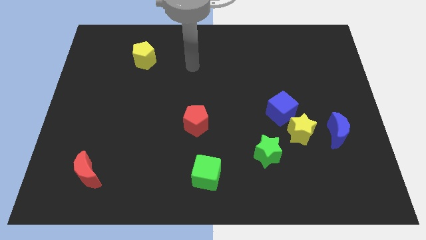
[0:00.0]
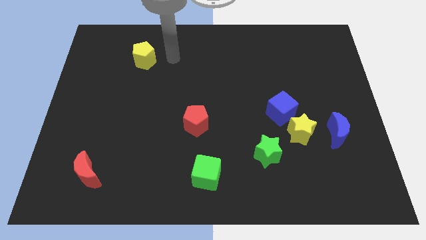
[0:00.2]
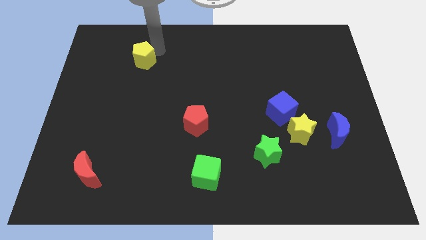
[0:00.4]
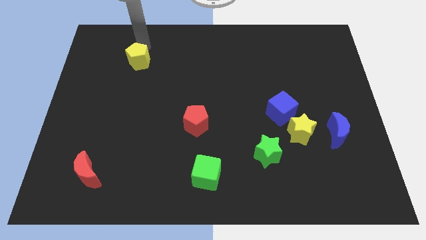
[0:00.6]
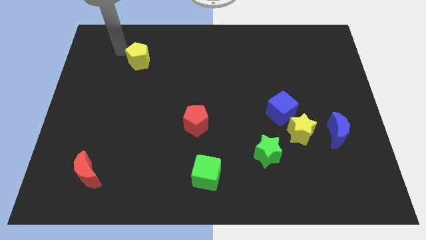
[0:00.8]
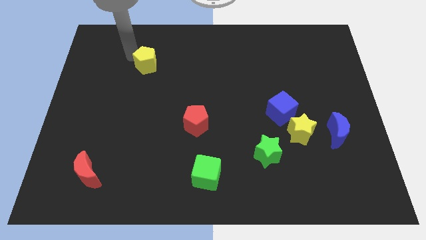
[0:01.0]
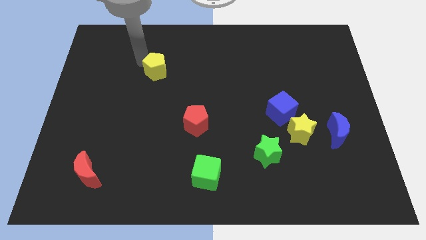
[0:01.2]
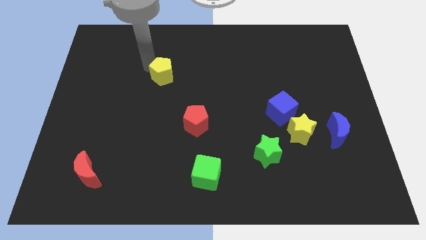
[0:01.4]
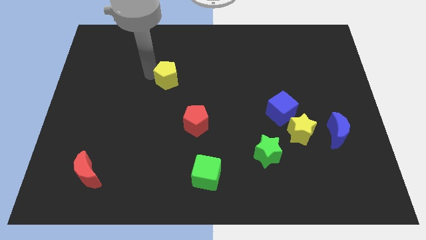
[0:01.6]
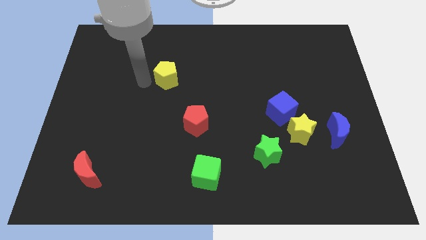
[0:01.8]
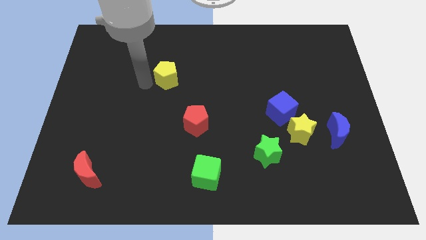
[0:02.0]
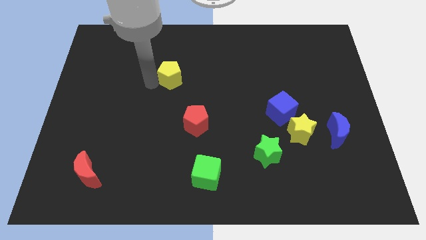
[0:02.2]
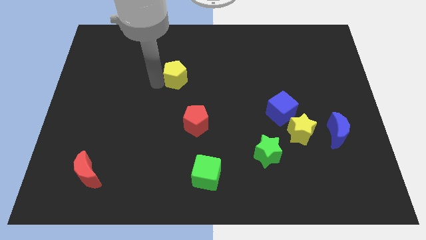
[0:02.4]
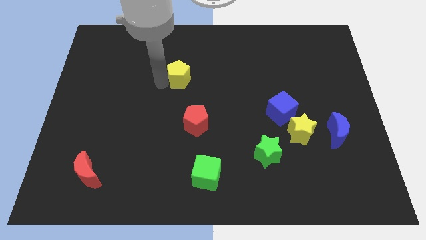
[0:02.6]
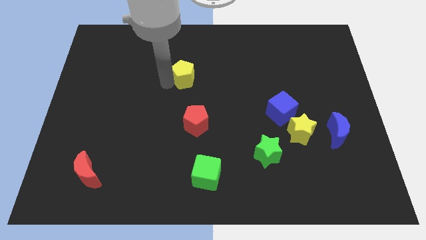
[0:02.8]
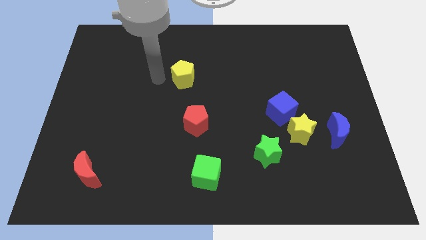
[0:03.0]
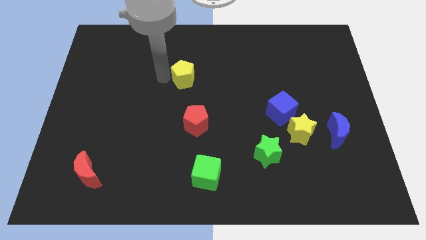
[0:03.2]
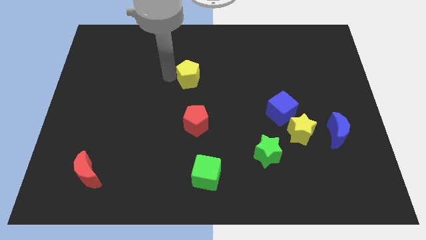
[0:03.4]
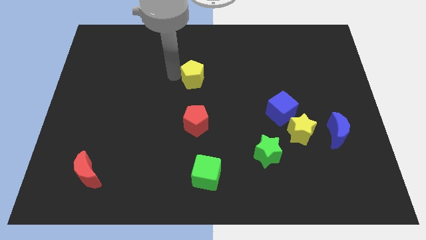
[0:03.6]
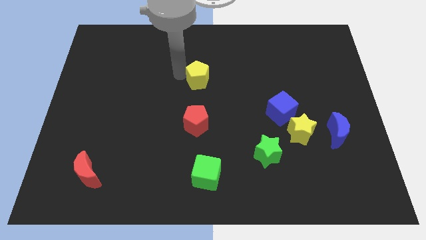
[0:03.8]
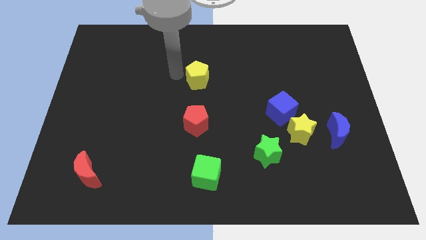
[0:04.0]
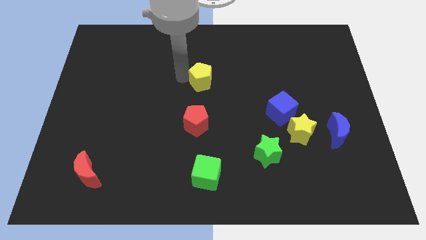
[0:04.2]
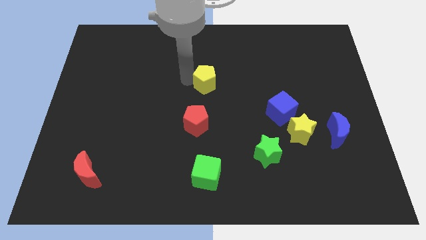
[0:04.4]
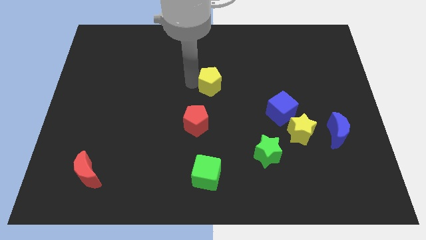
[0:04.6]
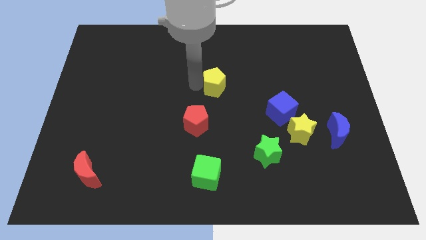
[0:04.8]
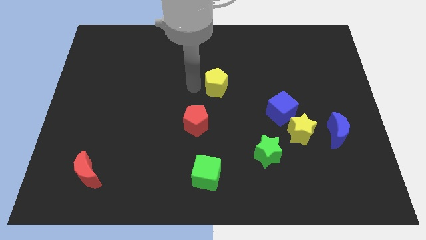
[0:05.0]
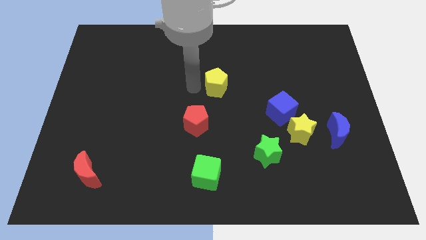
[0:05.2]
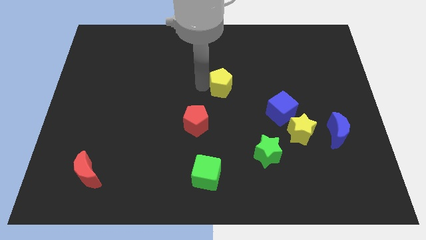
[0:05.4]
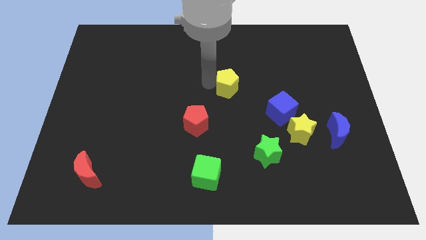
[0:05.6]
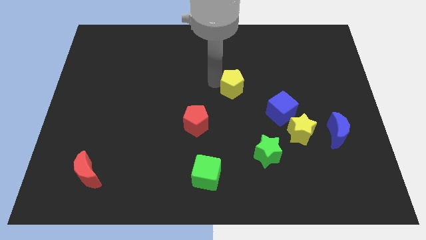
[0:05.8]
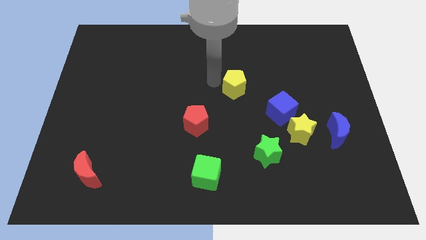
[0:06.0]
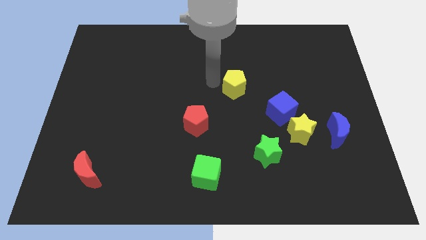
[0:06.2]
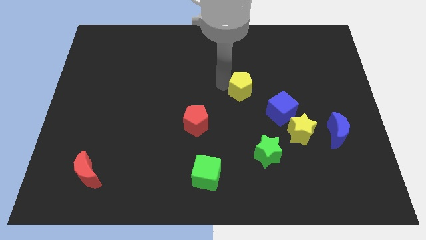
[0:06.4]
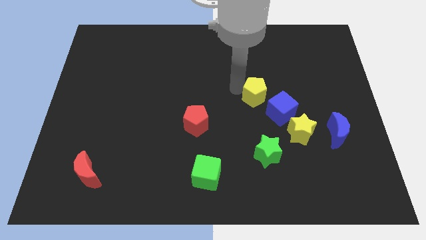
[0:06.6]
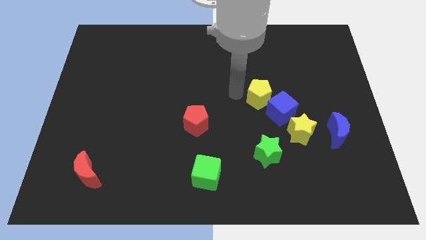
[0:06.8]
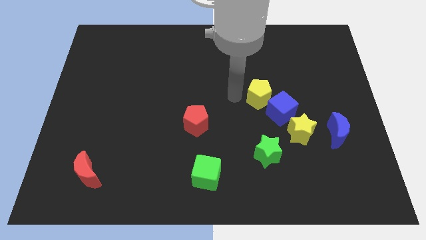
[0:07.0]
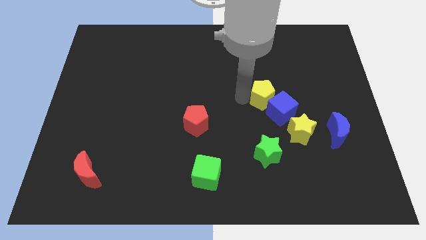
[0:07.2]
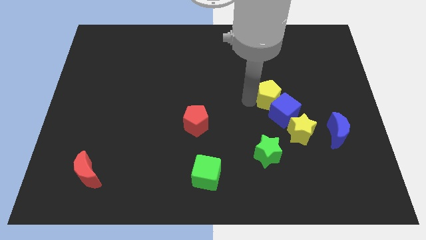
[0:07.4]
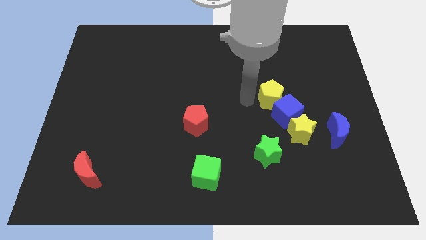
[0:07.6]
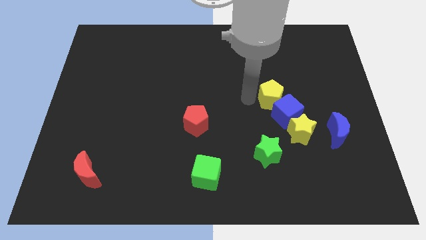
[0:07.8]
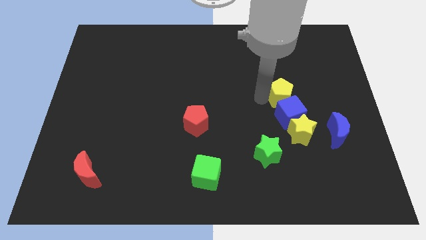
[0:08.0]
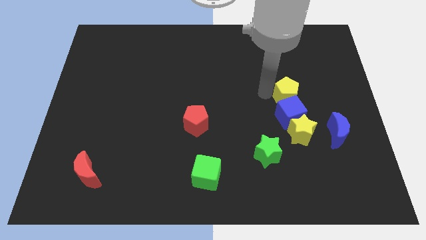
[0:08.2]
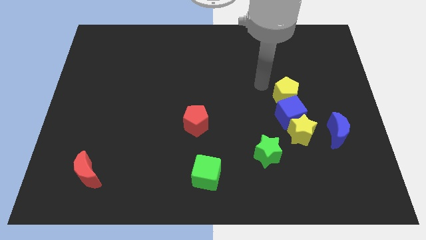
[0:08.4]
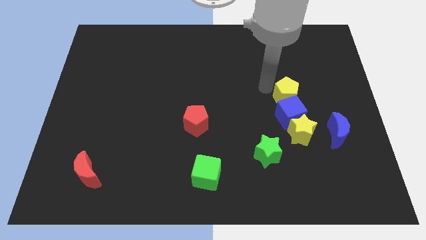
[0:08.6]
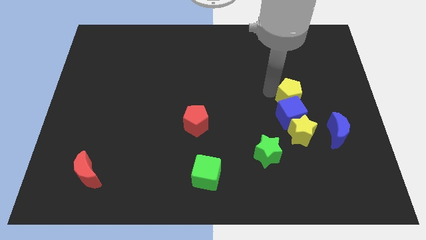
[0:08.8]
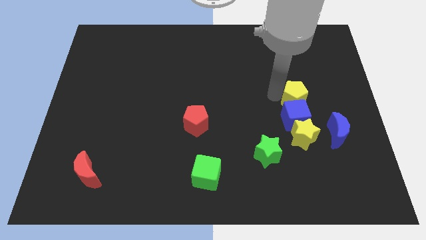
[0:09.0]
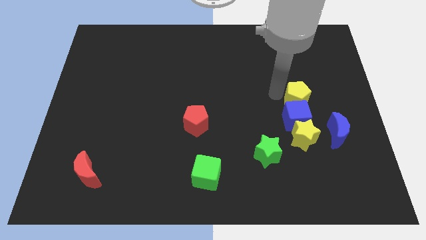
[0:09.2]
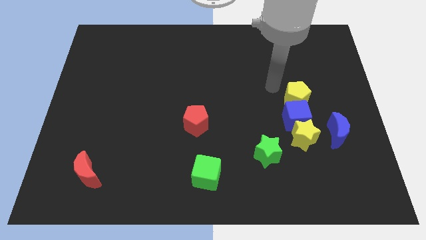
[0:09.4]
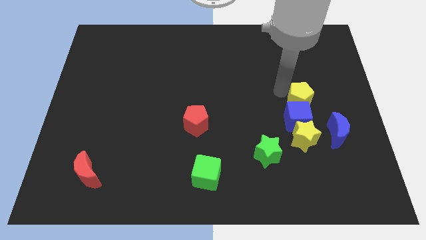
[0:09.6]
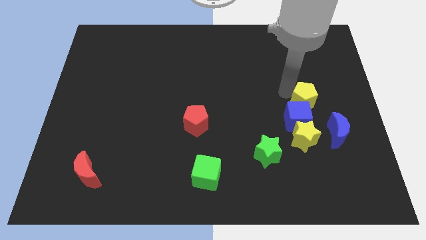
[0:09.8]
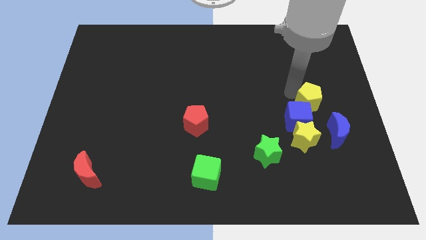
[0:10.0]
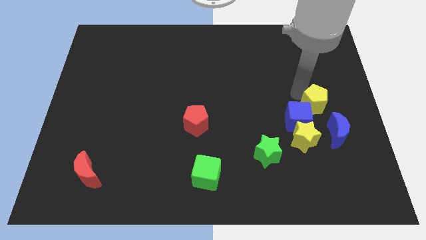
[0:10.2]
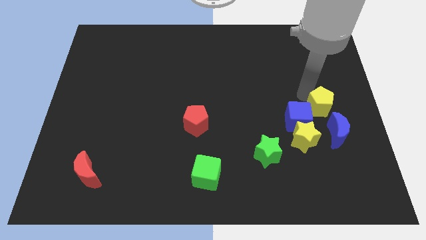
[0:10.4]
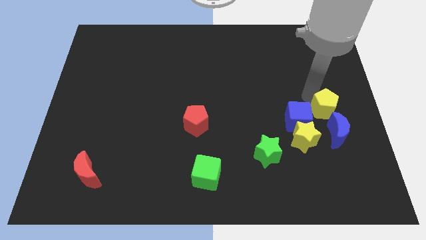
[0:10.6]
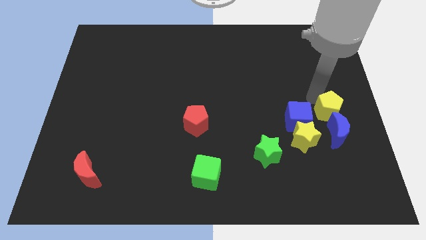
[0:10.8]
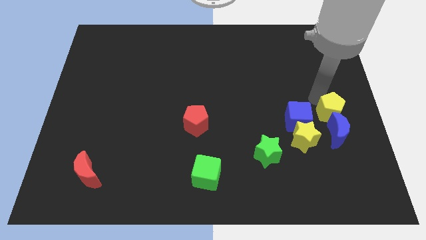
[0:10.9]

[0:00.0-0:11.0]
put the yellow pentagon close to the blue moon

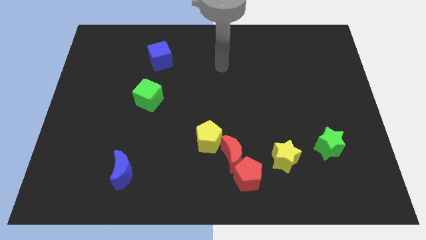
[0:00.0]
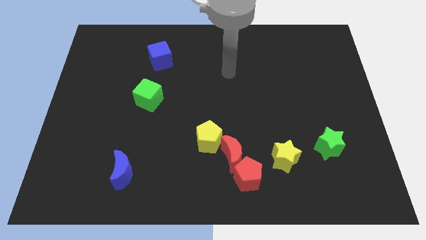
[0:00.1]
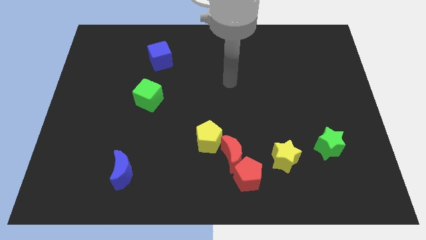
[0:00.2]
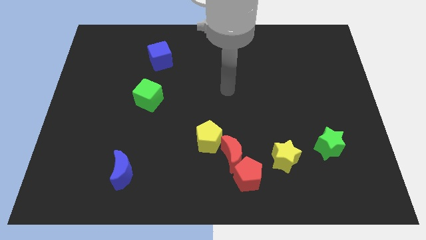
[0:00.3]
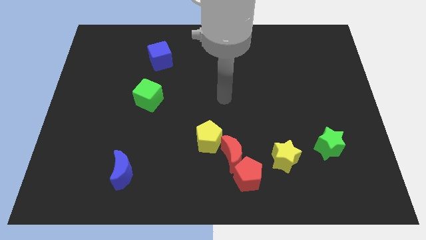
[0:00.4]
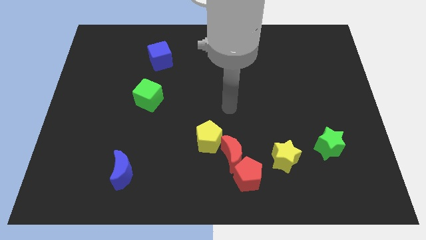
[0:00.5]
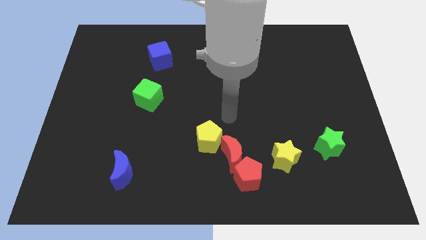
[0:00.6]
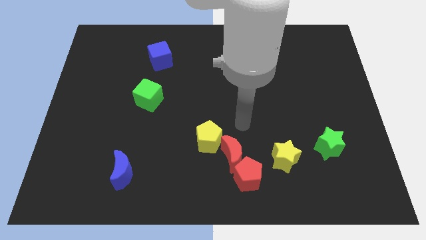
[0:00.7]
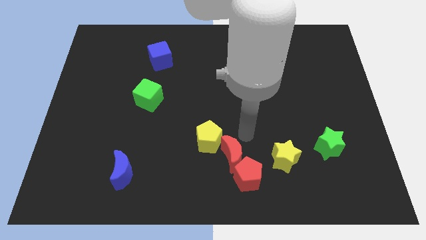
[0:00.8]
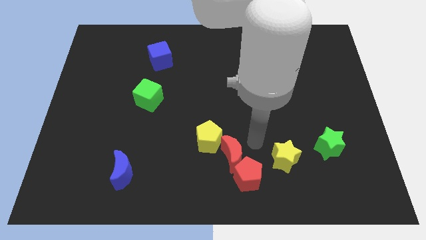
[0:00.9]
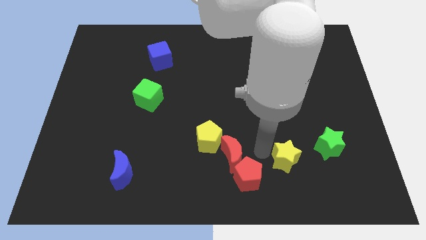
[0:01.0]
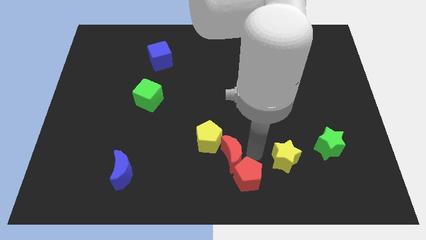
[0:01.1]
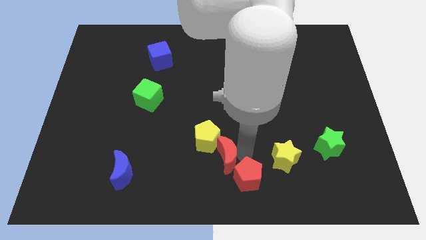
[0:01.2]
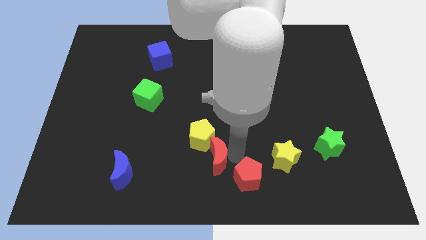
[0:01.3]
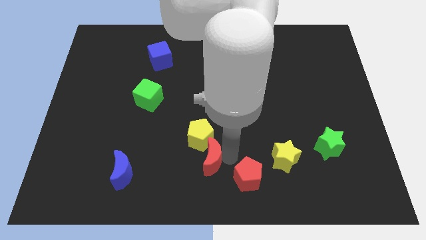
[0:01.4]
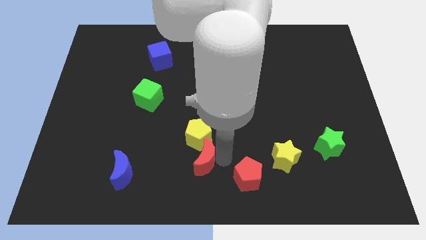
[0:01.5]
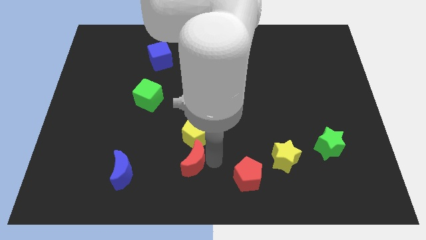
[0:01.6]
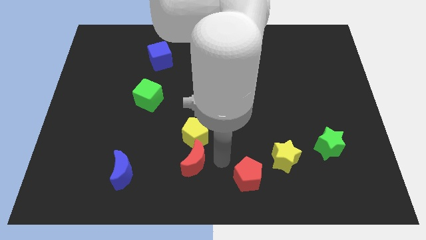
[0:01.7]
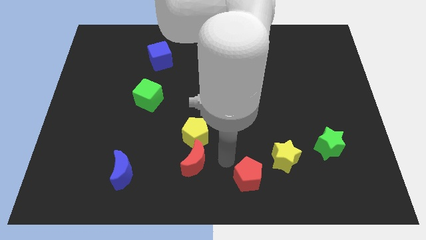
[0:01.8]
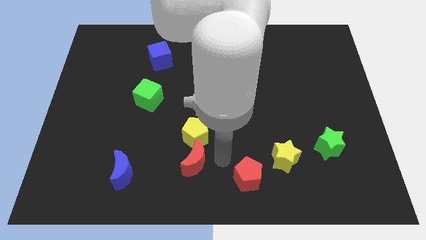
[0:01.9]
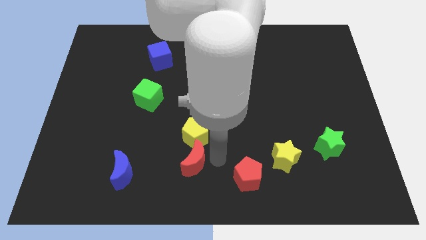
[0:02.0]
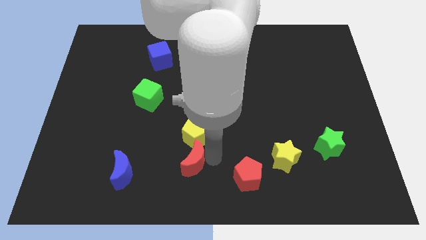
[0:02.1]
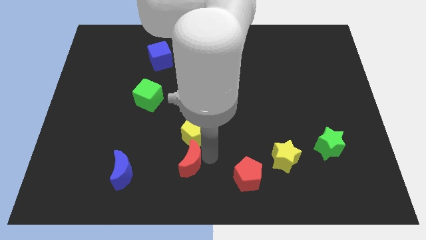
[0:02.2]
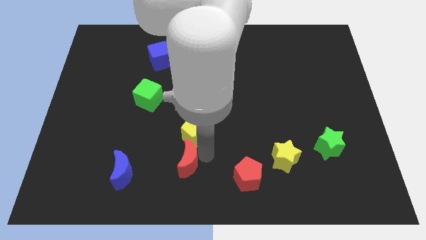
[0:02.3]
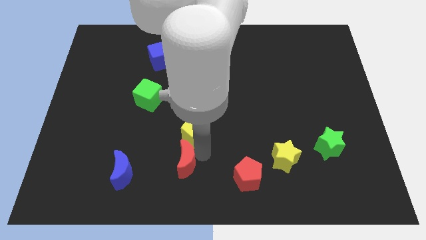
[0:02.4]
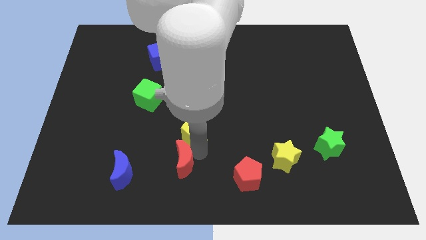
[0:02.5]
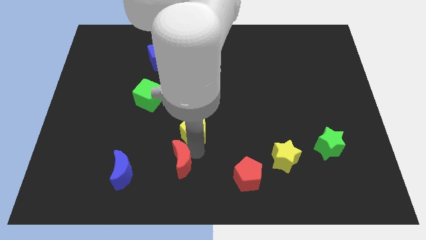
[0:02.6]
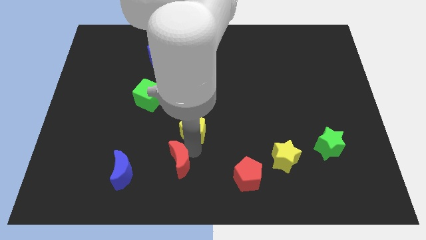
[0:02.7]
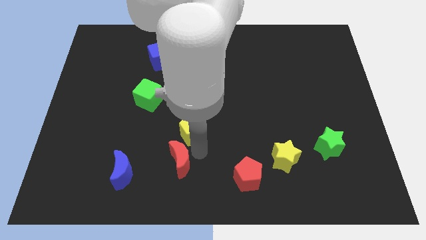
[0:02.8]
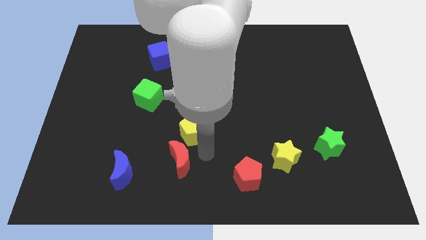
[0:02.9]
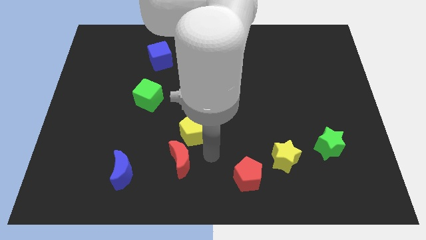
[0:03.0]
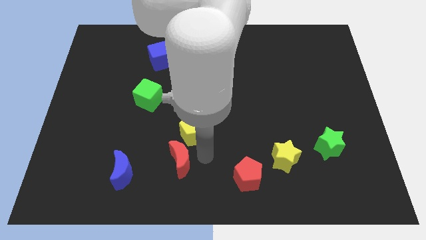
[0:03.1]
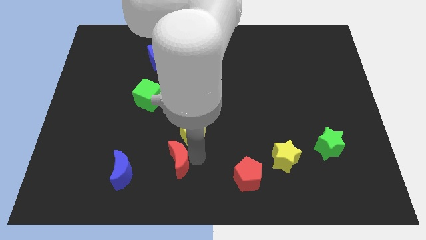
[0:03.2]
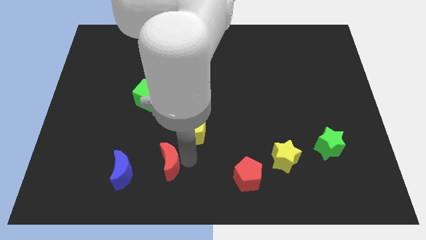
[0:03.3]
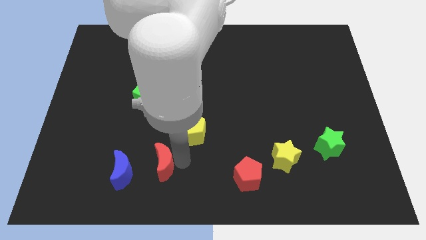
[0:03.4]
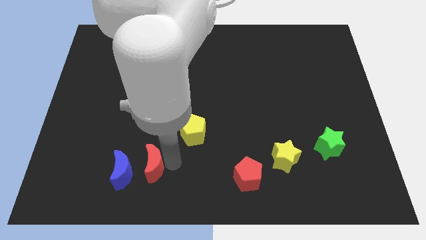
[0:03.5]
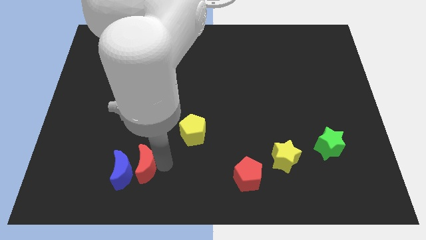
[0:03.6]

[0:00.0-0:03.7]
push the red moon next to the blue moon
